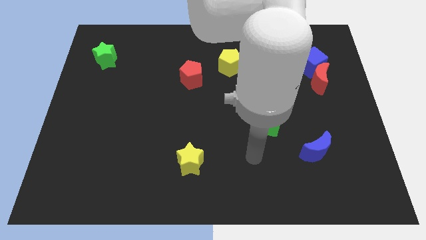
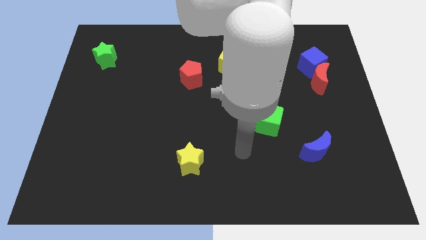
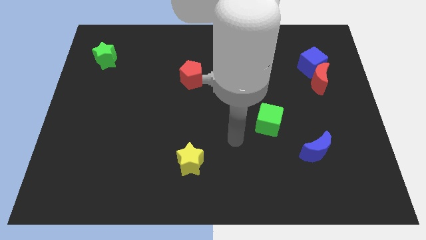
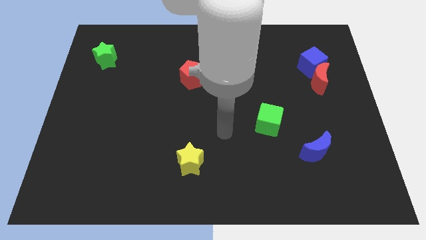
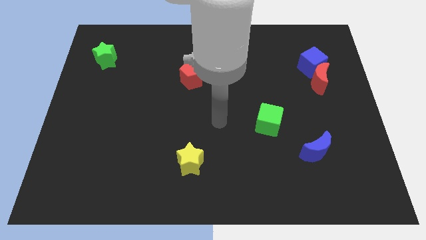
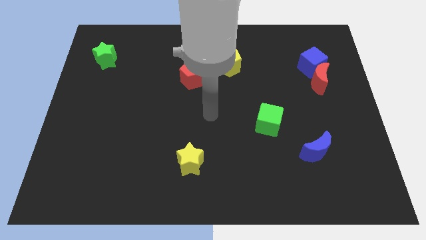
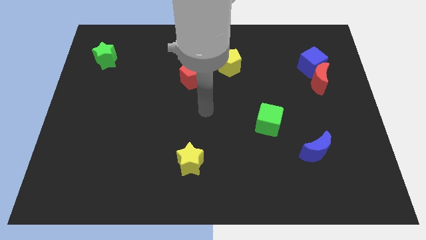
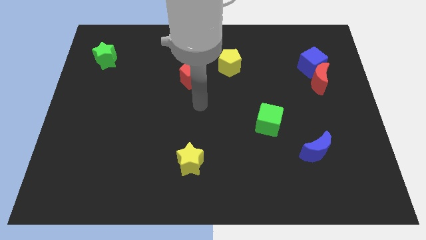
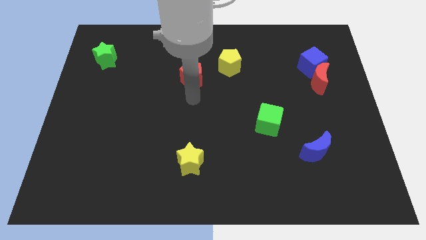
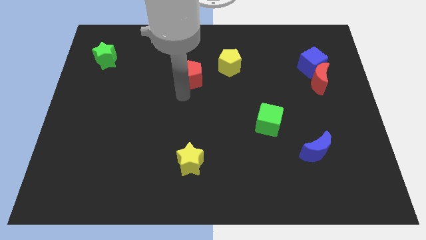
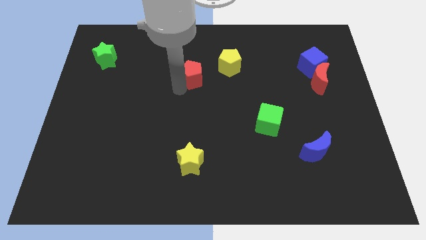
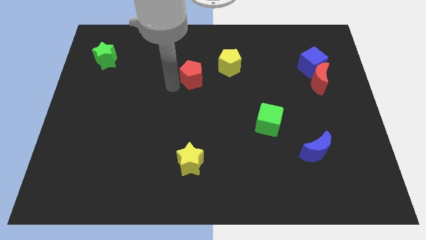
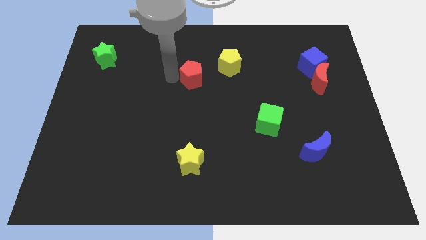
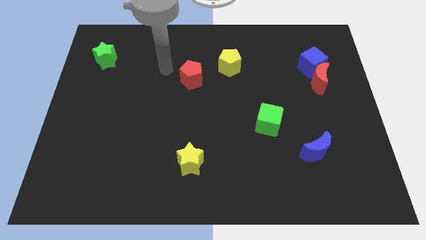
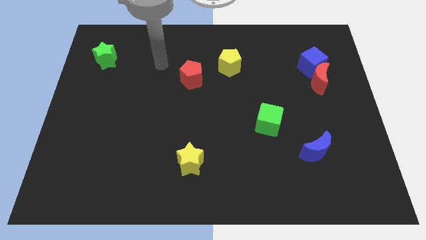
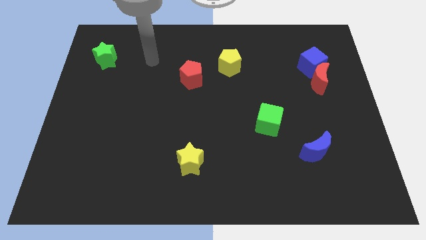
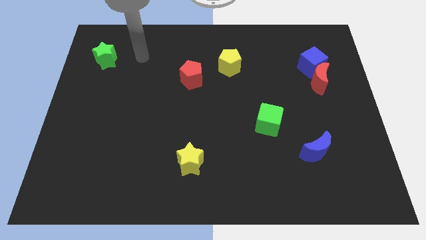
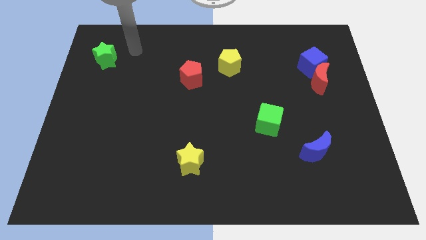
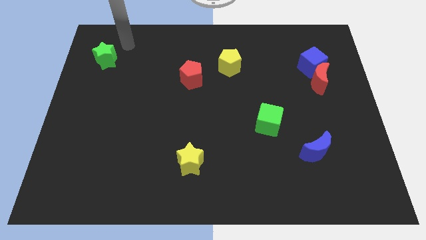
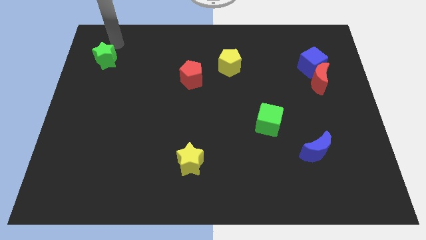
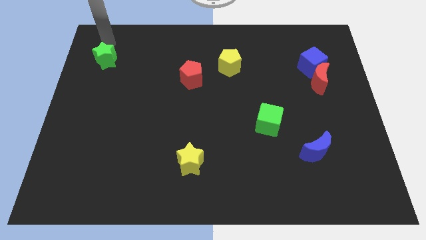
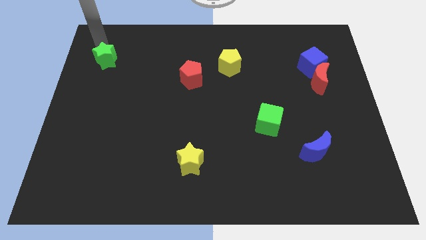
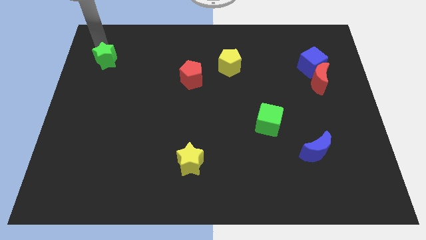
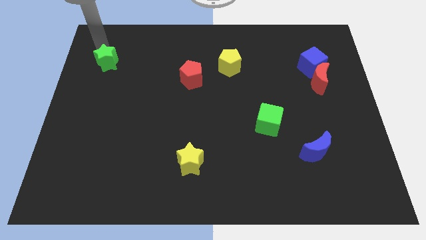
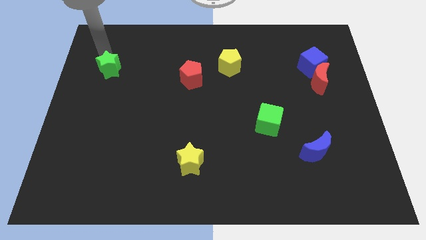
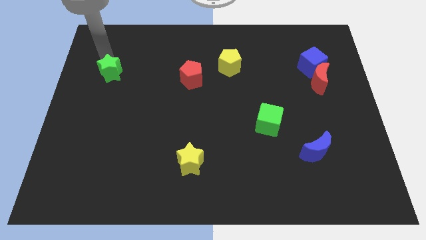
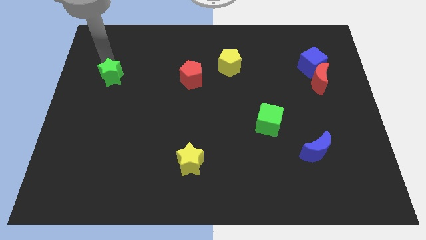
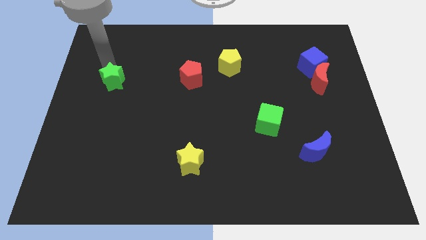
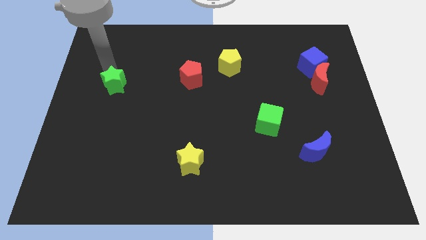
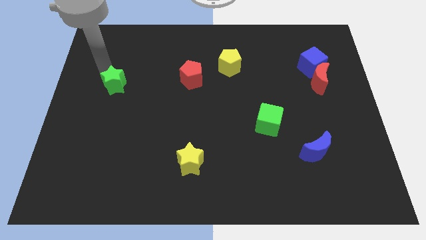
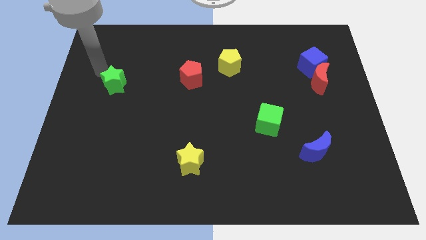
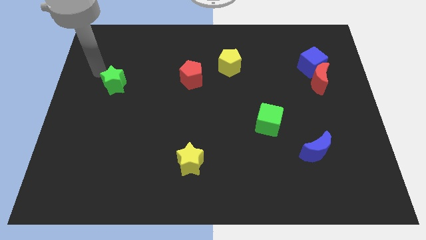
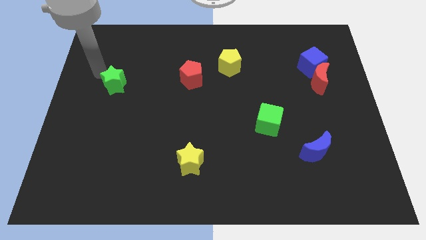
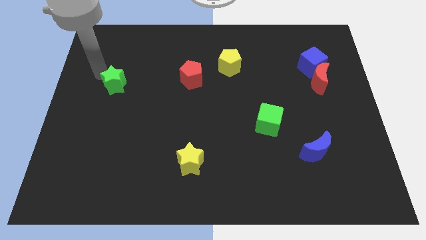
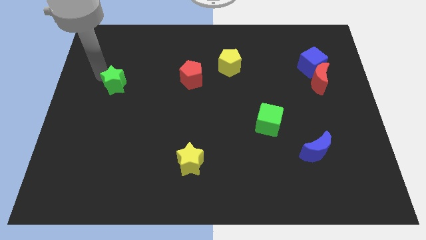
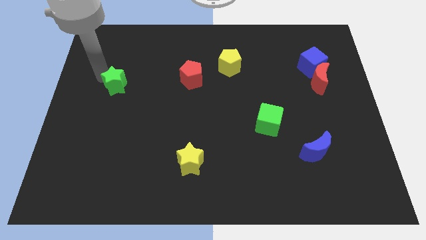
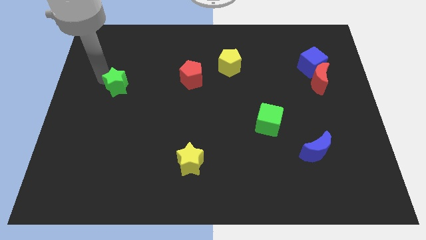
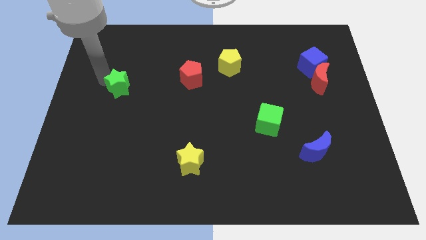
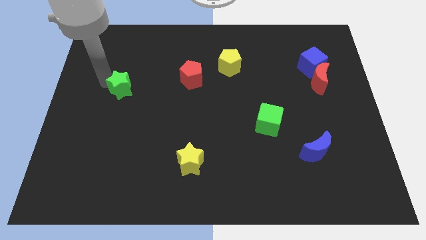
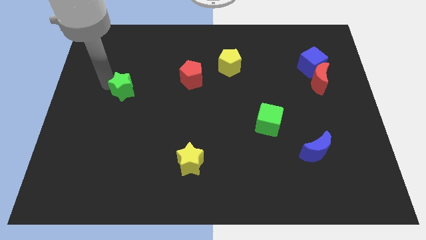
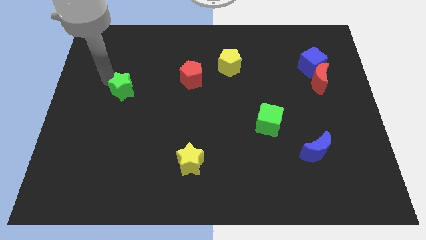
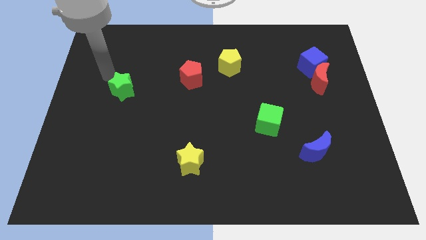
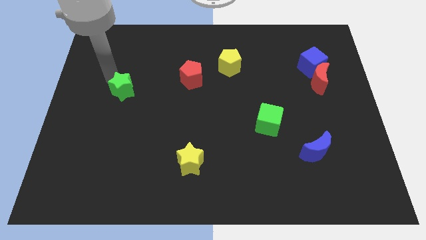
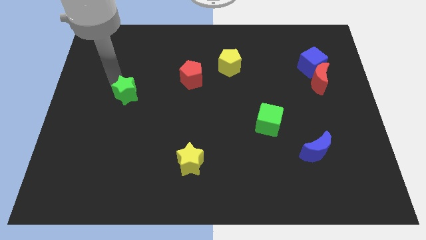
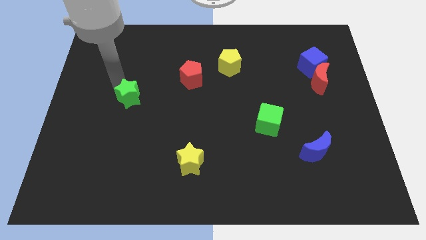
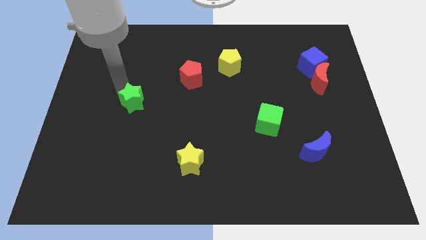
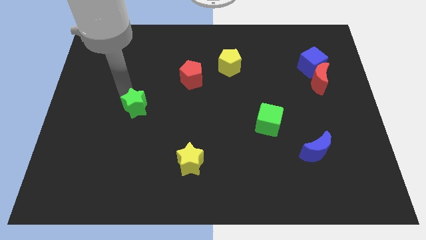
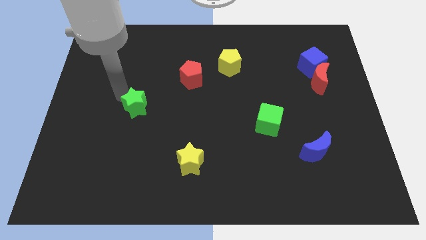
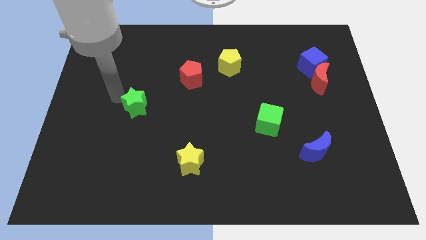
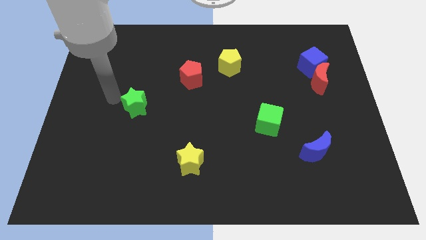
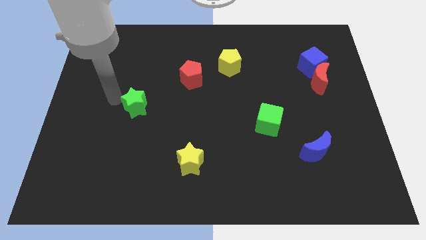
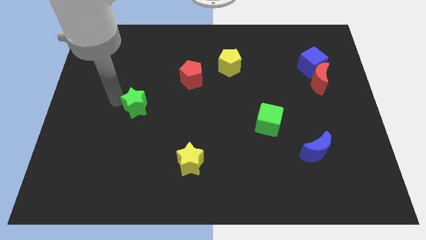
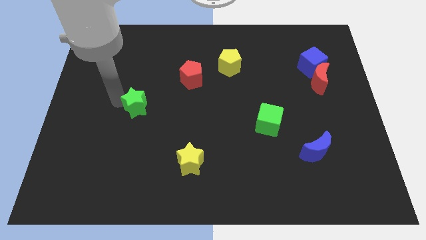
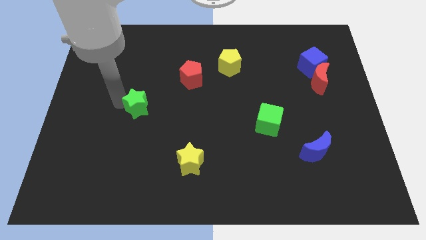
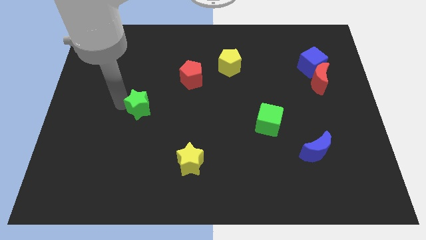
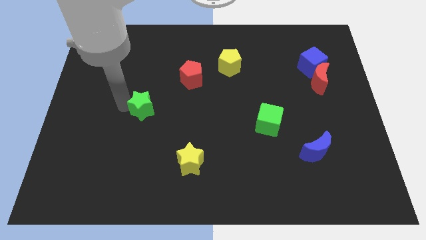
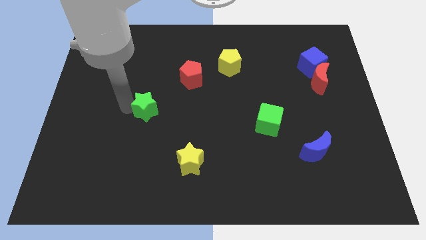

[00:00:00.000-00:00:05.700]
move the green star down and to the right

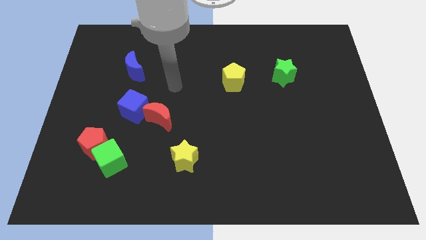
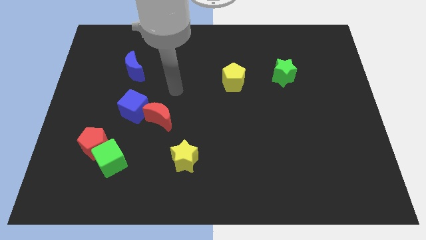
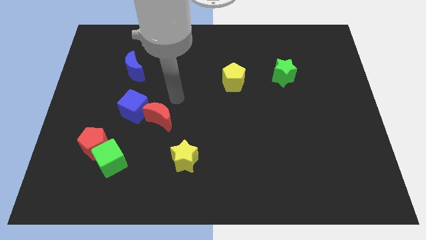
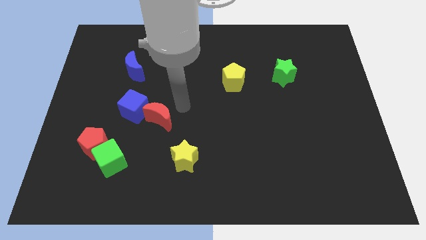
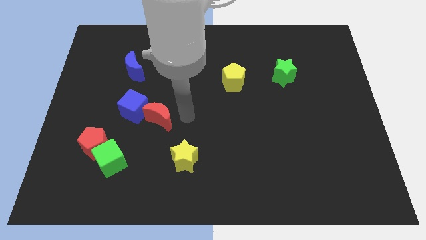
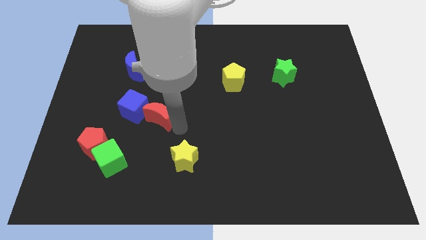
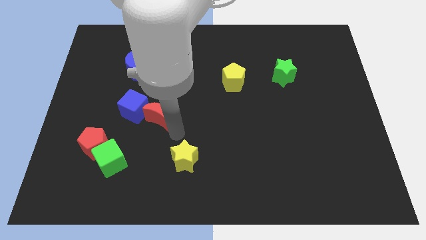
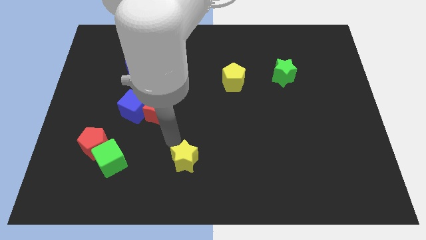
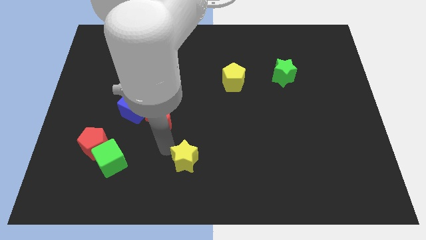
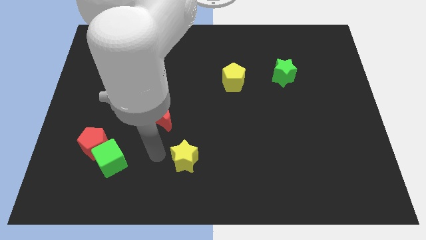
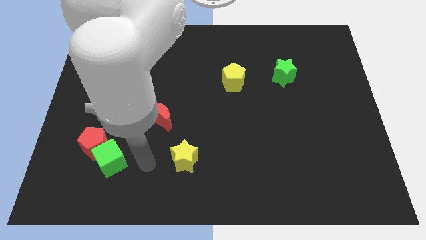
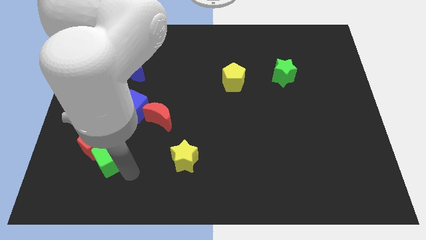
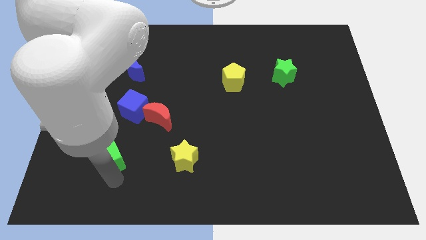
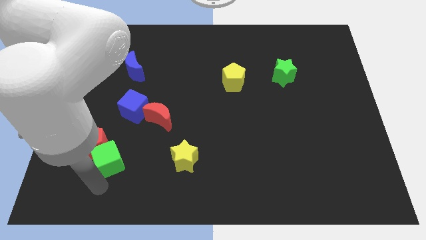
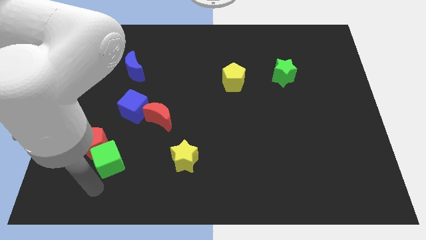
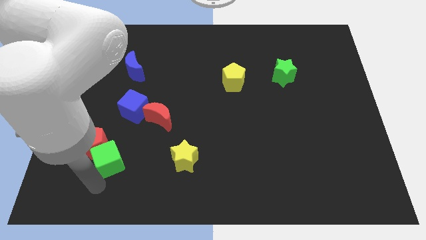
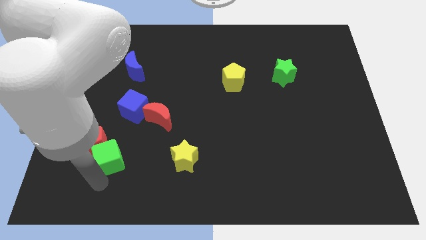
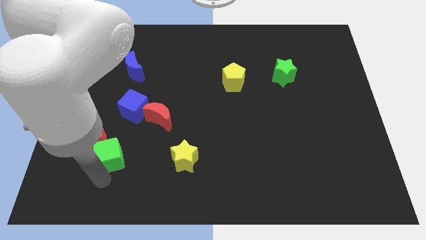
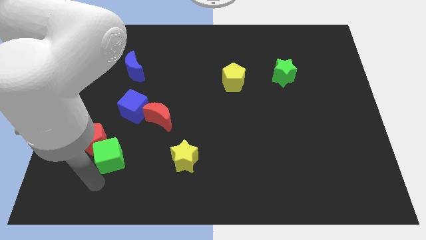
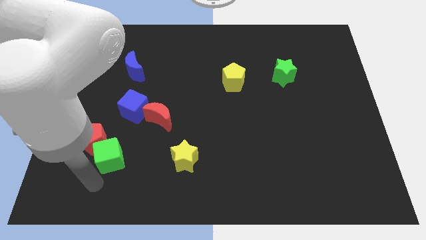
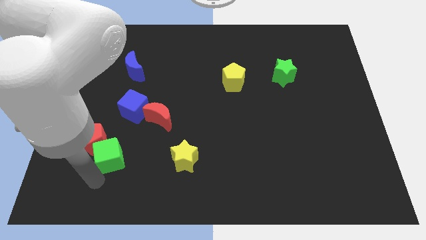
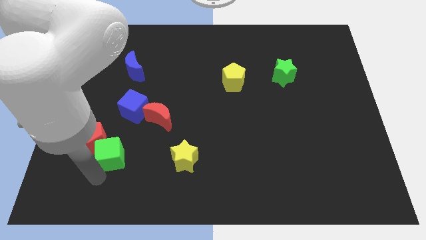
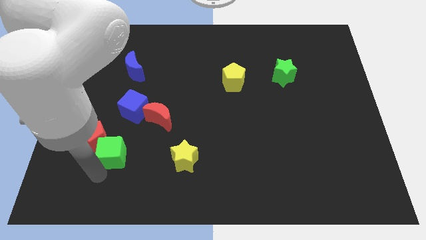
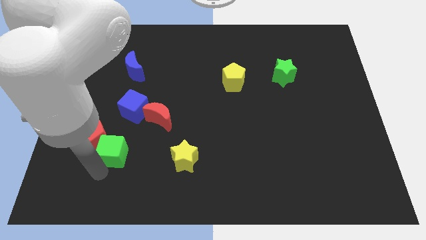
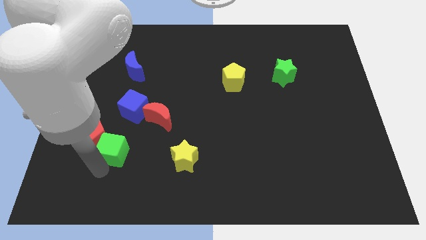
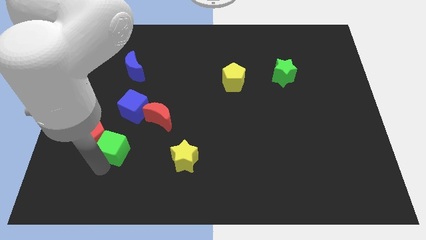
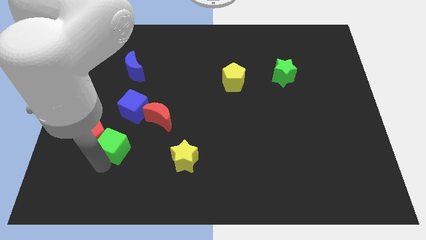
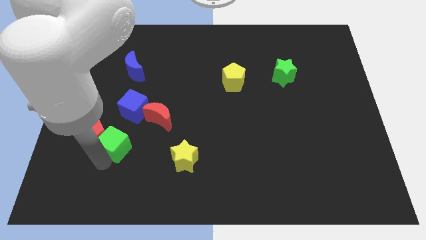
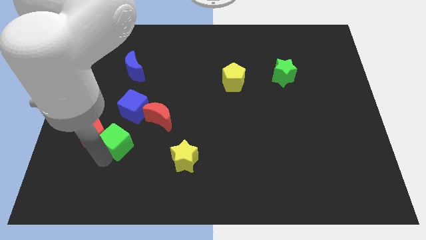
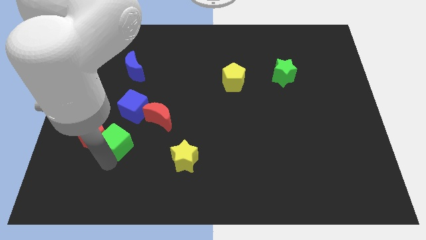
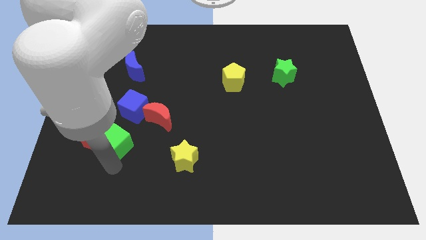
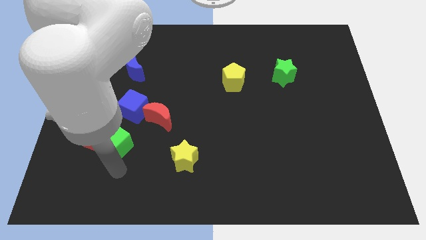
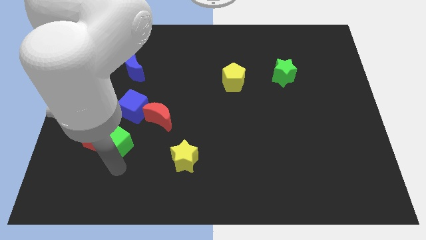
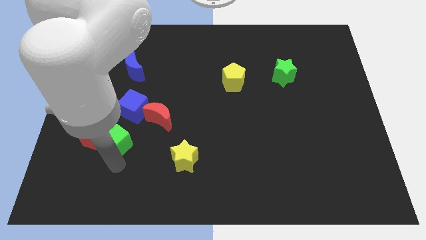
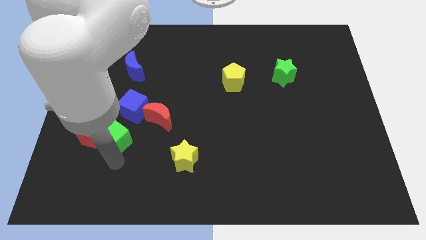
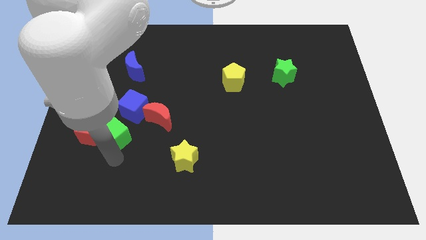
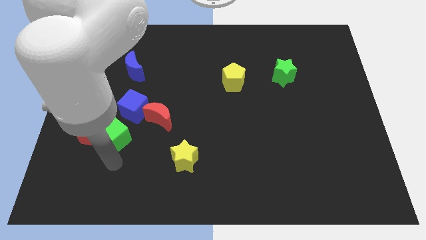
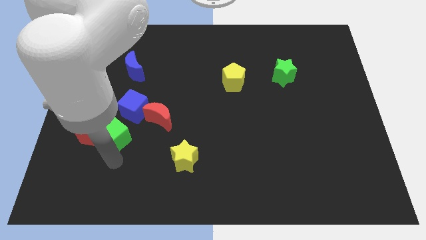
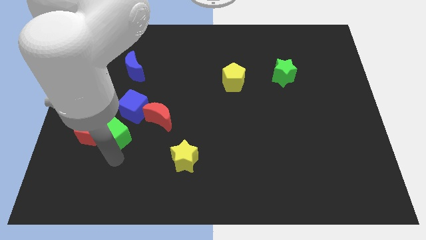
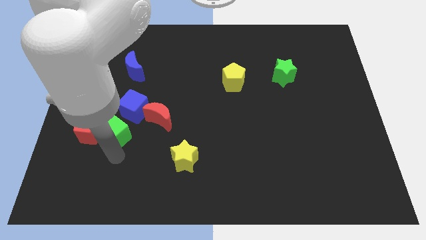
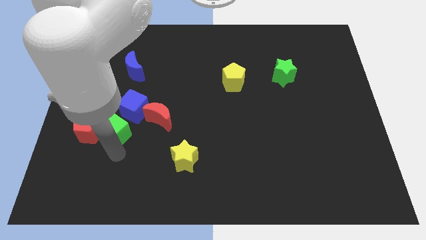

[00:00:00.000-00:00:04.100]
slightly push the green cube upwards
